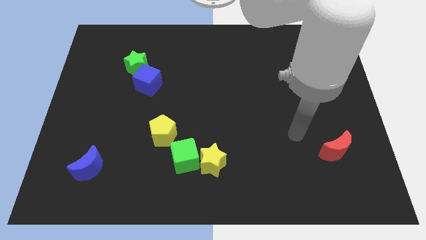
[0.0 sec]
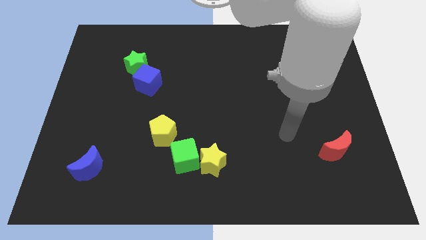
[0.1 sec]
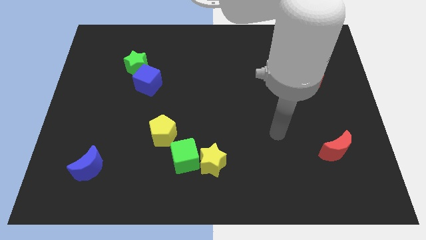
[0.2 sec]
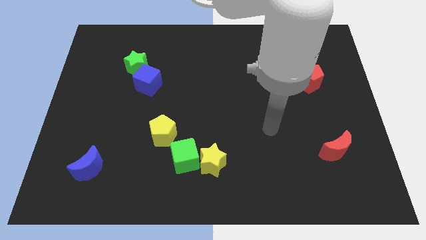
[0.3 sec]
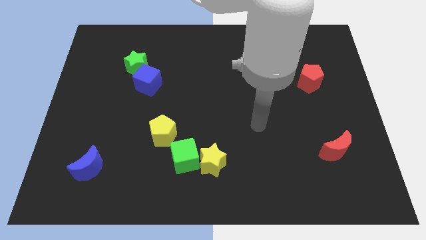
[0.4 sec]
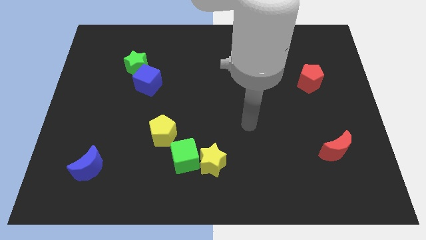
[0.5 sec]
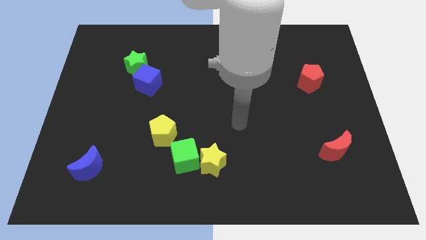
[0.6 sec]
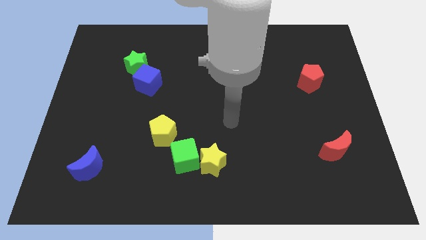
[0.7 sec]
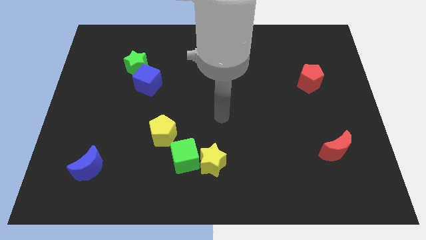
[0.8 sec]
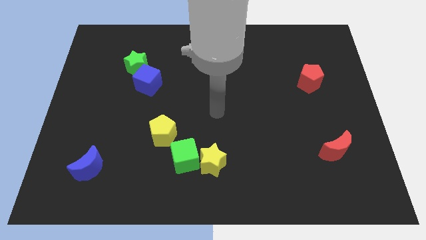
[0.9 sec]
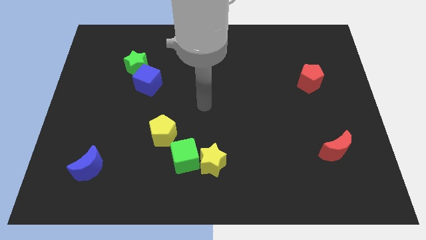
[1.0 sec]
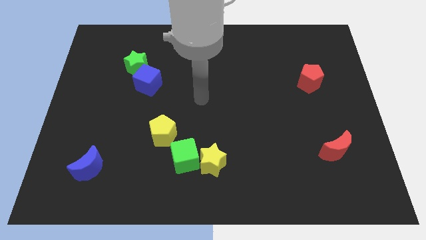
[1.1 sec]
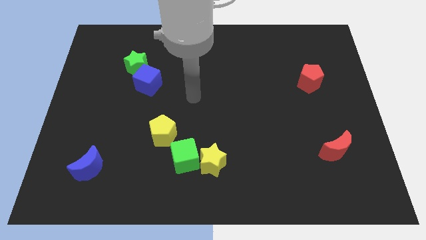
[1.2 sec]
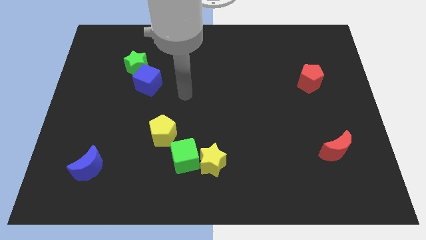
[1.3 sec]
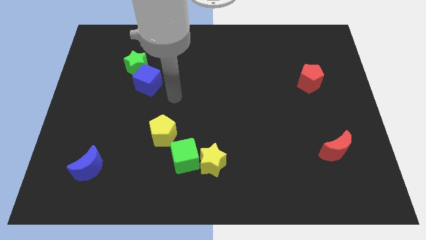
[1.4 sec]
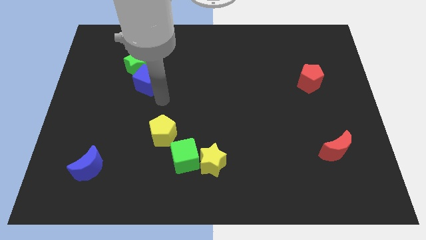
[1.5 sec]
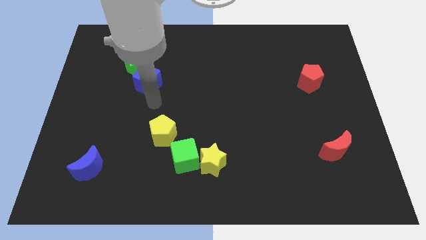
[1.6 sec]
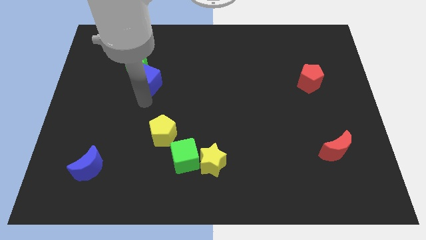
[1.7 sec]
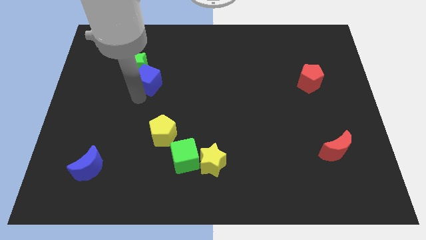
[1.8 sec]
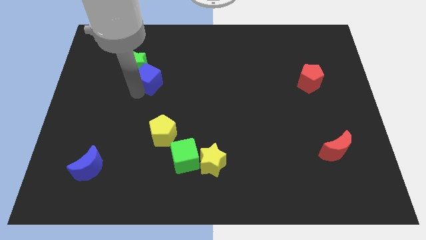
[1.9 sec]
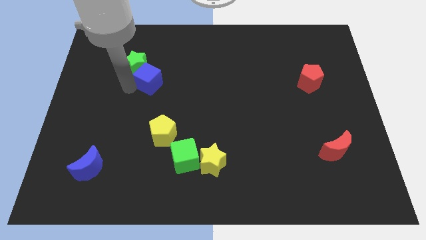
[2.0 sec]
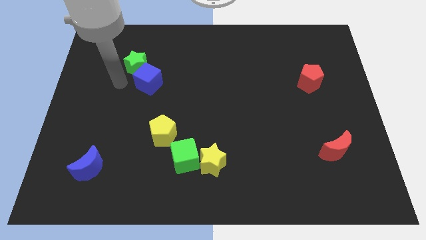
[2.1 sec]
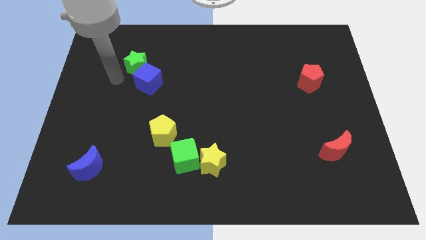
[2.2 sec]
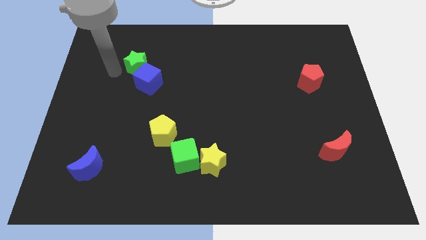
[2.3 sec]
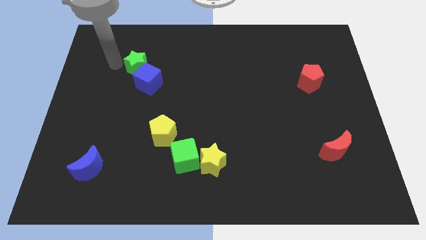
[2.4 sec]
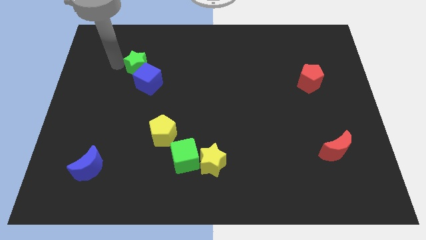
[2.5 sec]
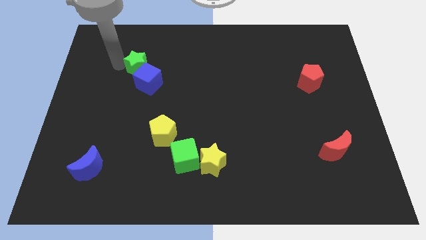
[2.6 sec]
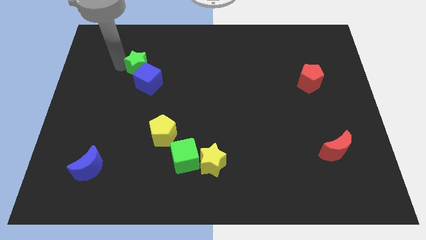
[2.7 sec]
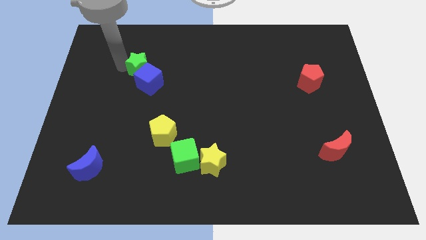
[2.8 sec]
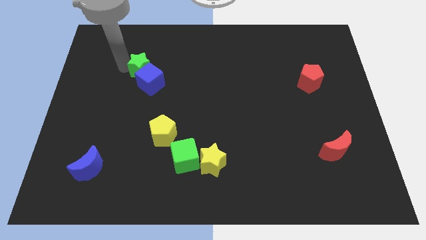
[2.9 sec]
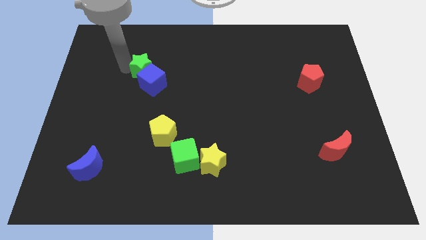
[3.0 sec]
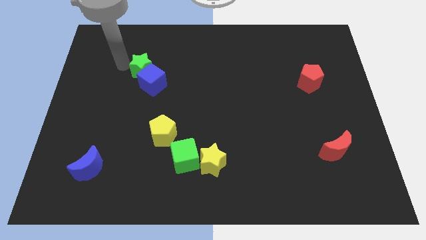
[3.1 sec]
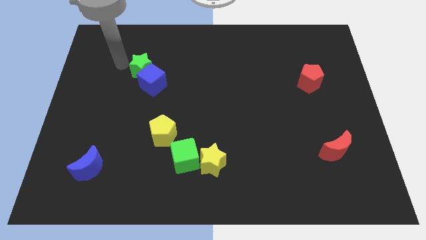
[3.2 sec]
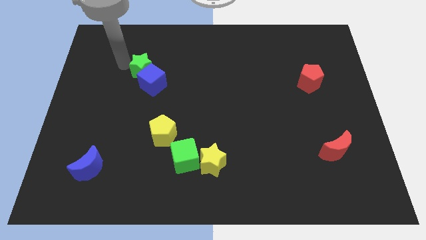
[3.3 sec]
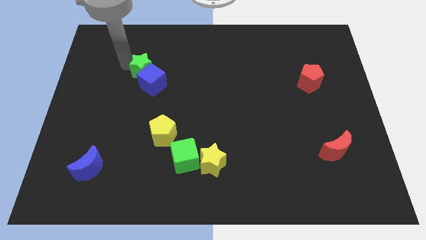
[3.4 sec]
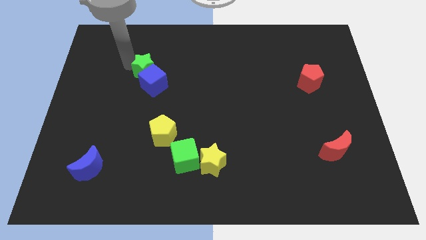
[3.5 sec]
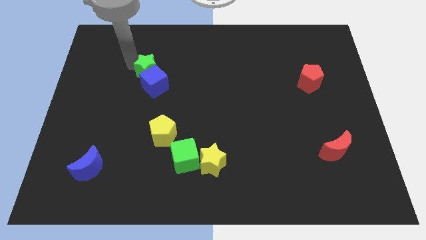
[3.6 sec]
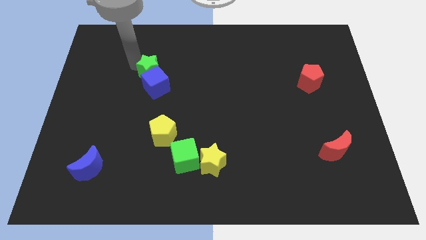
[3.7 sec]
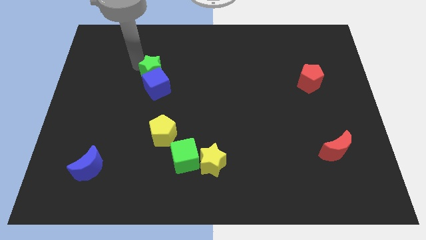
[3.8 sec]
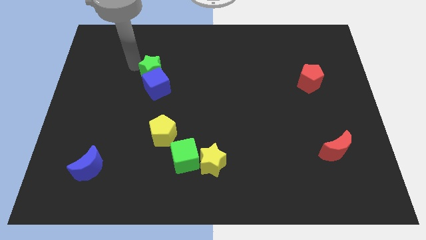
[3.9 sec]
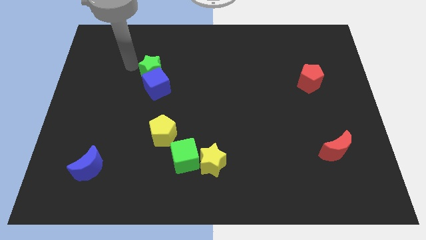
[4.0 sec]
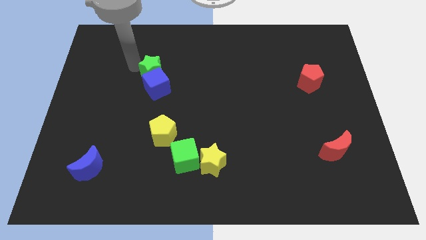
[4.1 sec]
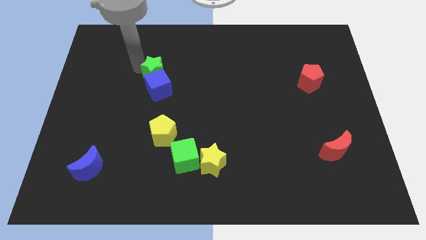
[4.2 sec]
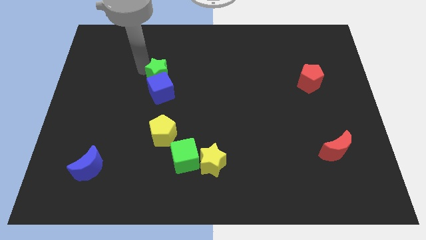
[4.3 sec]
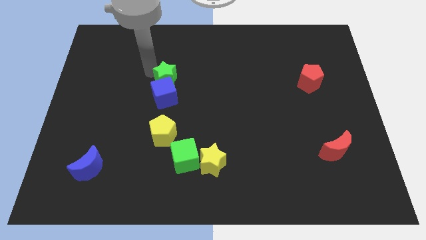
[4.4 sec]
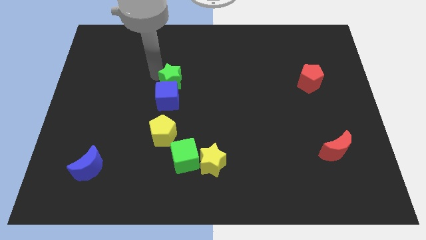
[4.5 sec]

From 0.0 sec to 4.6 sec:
move the green star to the middle of the board

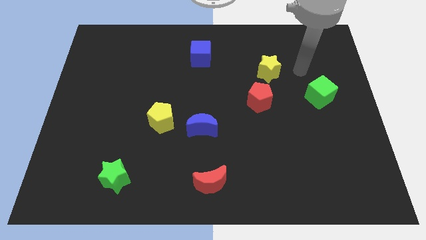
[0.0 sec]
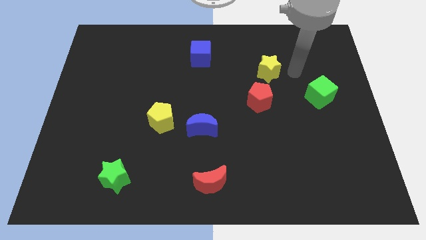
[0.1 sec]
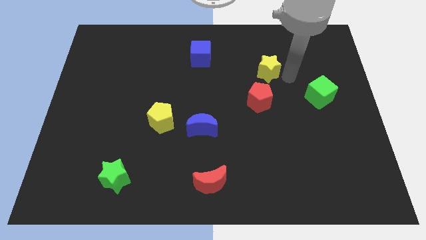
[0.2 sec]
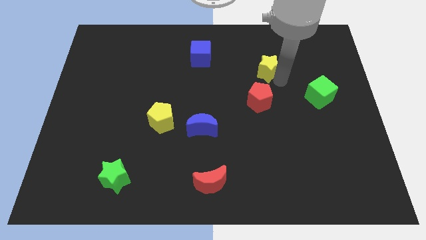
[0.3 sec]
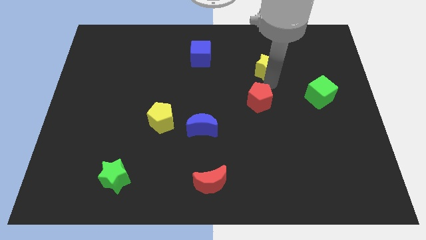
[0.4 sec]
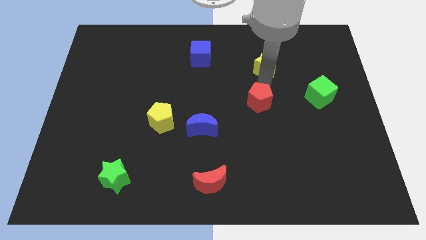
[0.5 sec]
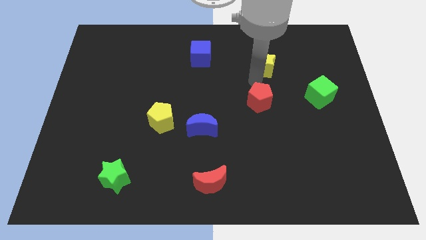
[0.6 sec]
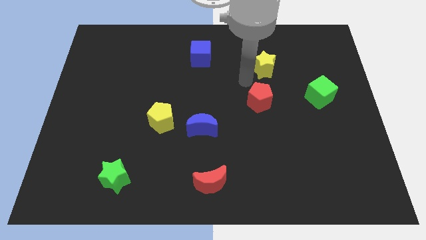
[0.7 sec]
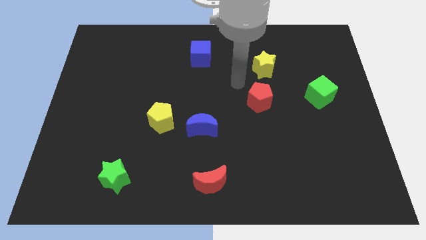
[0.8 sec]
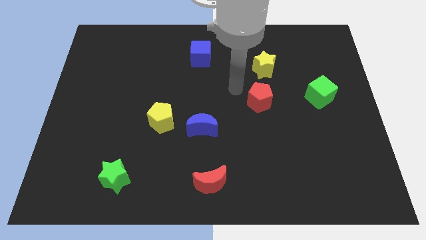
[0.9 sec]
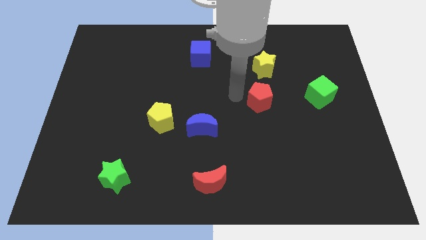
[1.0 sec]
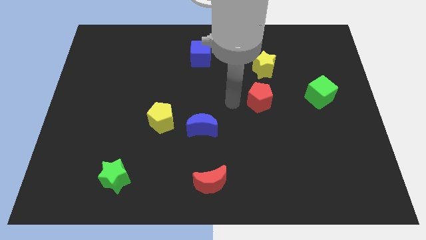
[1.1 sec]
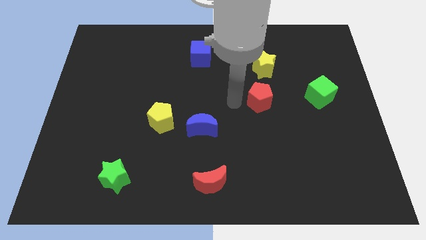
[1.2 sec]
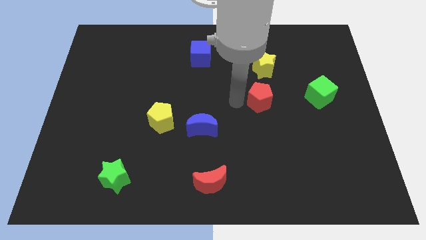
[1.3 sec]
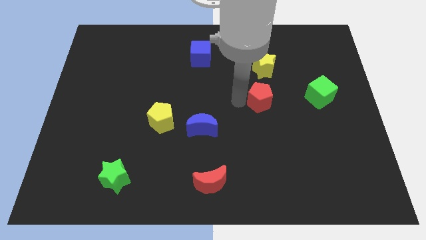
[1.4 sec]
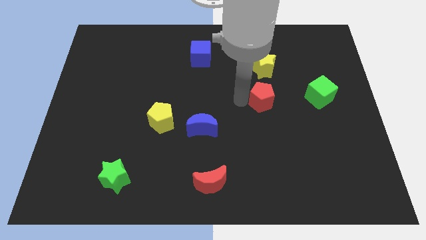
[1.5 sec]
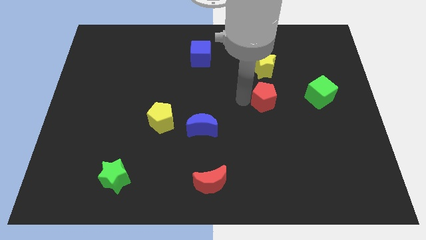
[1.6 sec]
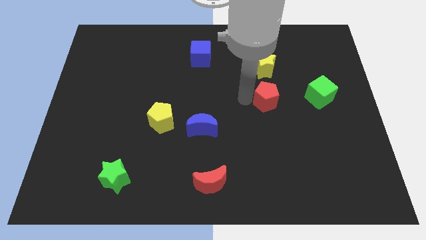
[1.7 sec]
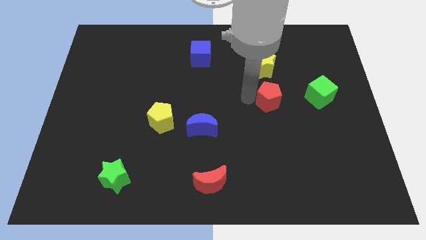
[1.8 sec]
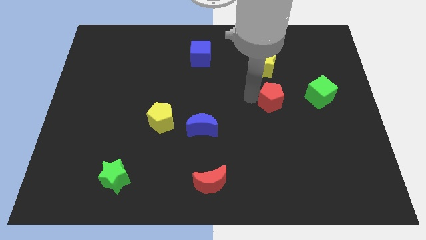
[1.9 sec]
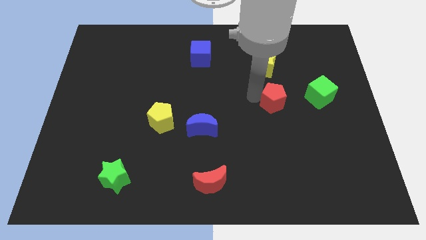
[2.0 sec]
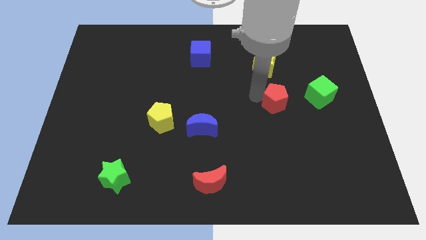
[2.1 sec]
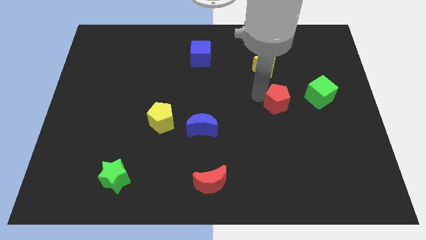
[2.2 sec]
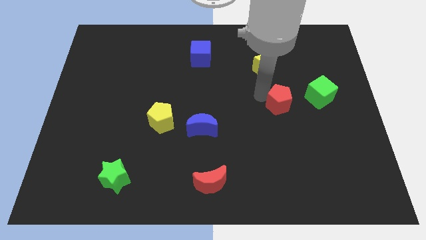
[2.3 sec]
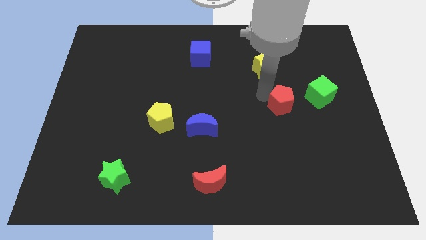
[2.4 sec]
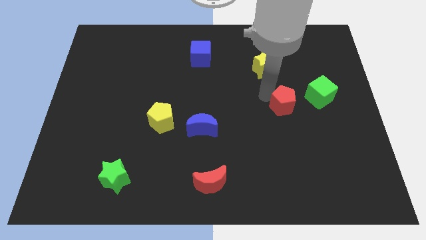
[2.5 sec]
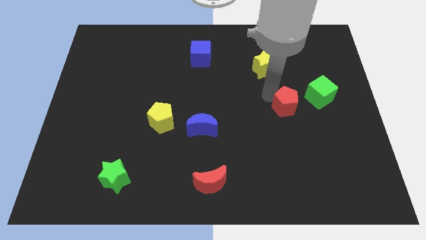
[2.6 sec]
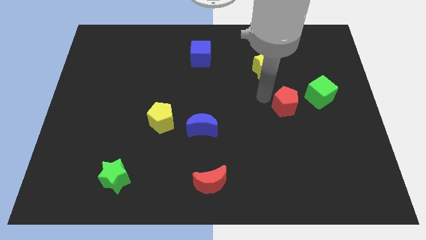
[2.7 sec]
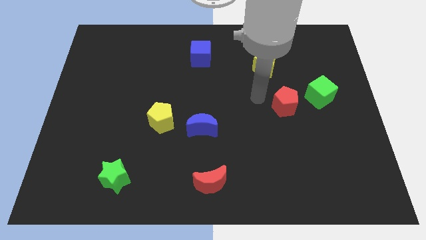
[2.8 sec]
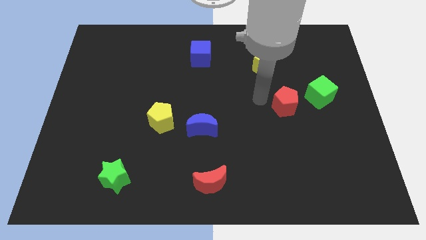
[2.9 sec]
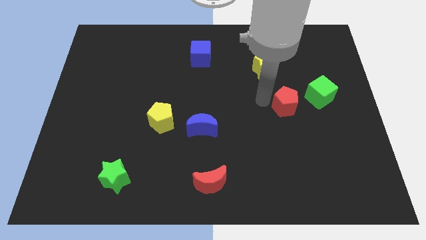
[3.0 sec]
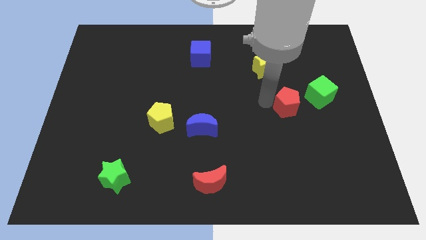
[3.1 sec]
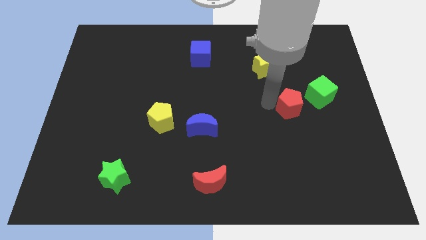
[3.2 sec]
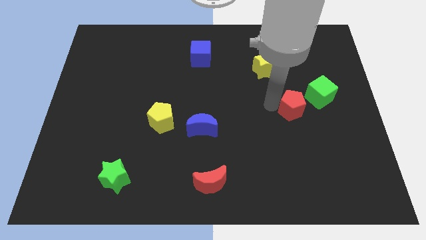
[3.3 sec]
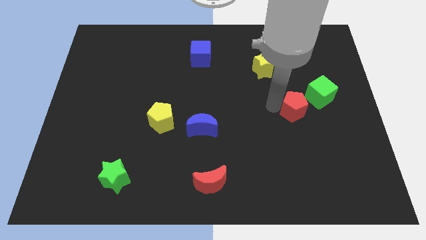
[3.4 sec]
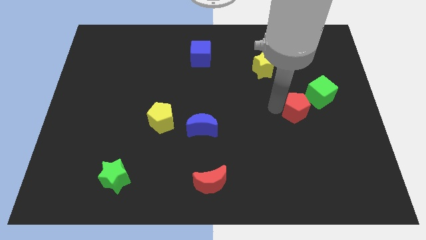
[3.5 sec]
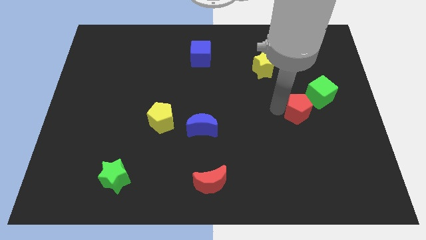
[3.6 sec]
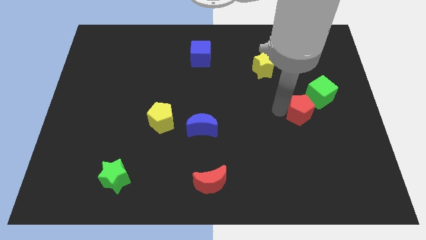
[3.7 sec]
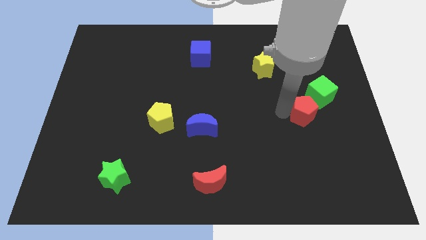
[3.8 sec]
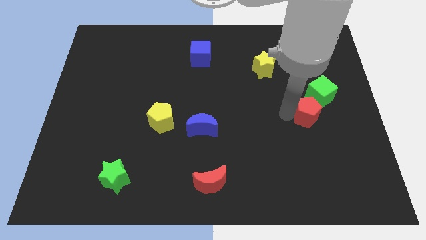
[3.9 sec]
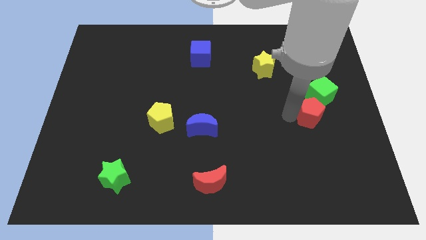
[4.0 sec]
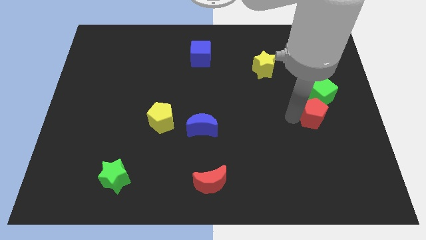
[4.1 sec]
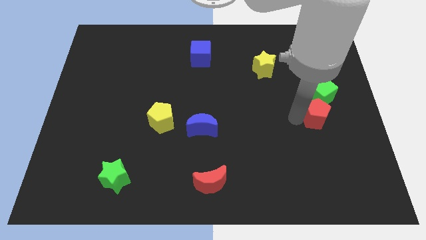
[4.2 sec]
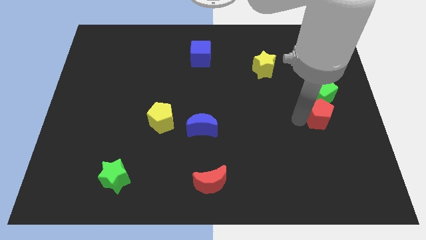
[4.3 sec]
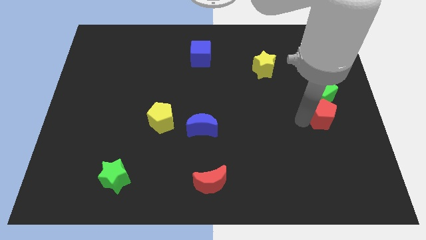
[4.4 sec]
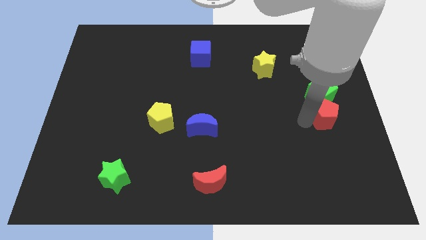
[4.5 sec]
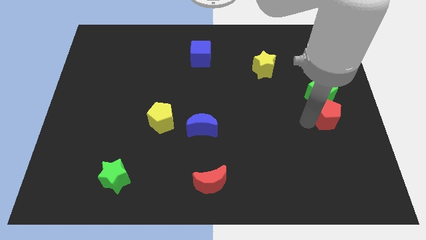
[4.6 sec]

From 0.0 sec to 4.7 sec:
put the red pentagon to the right side
